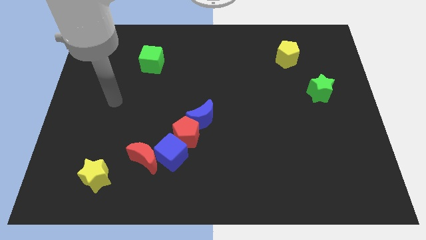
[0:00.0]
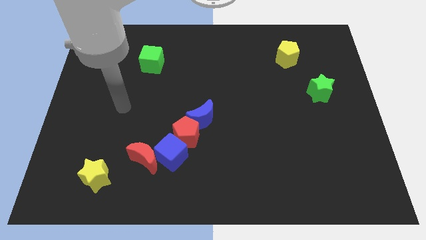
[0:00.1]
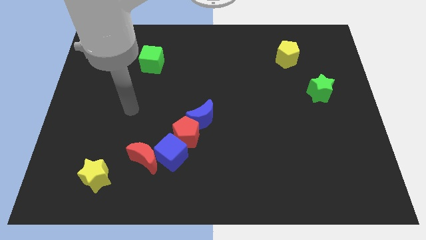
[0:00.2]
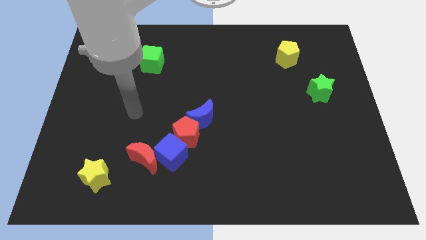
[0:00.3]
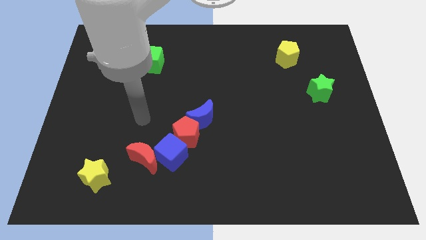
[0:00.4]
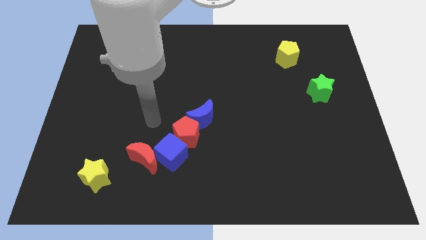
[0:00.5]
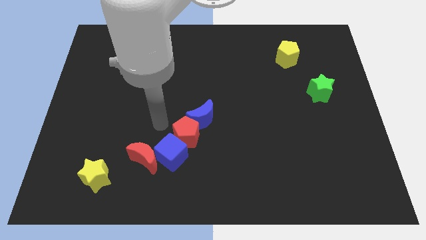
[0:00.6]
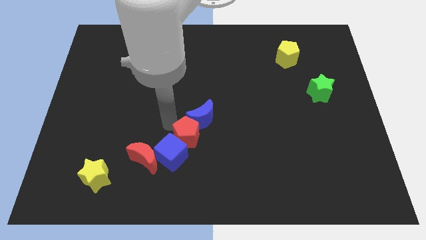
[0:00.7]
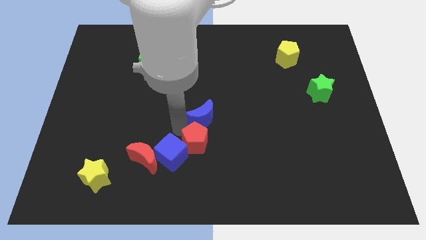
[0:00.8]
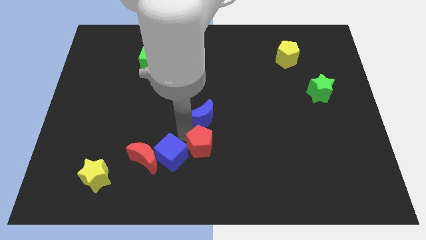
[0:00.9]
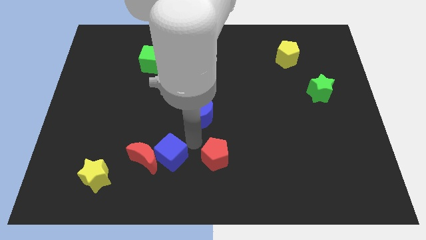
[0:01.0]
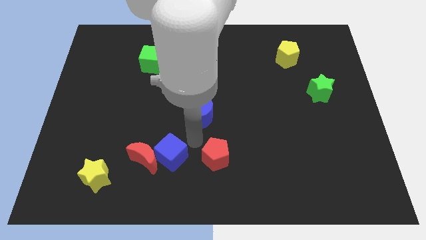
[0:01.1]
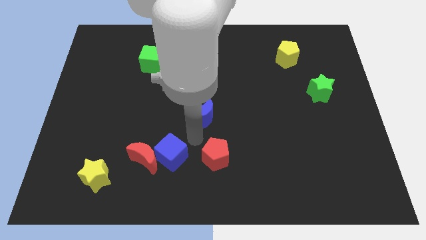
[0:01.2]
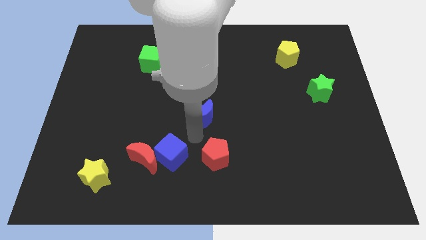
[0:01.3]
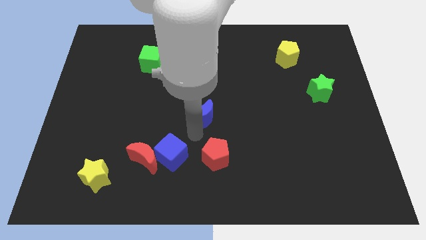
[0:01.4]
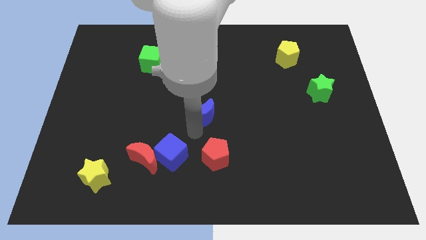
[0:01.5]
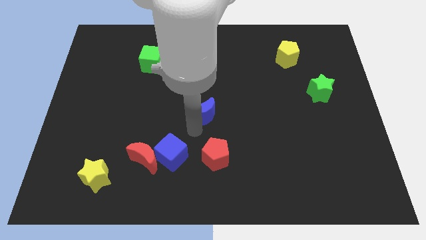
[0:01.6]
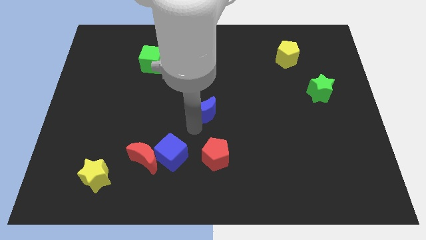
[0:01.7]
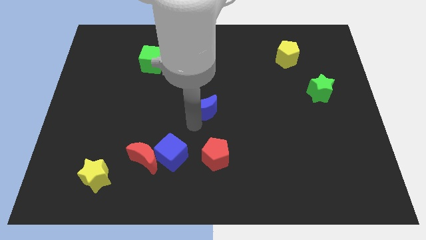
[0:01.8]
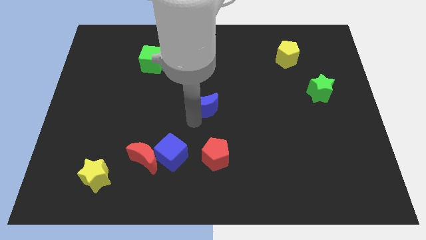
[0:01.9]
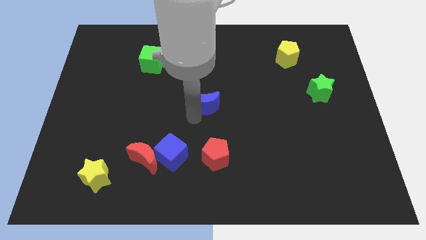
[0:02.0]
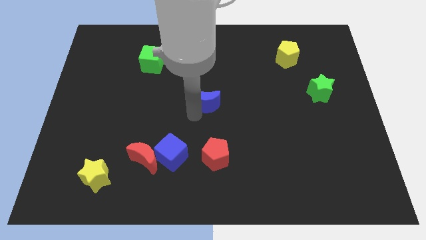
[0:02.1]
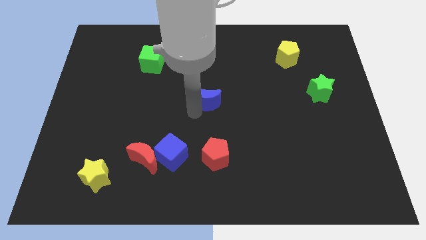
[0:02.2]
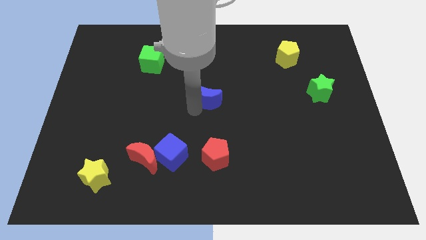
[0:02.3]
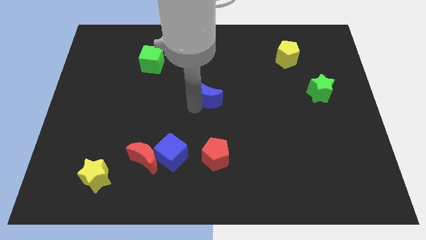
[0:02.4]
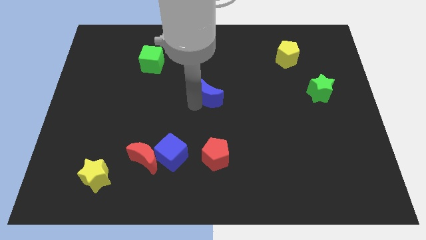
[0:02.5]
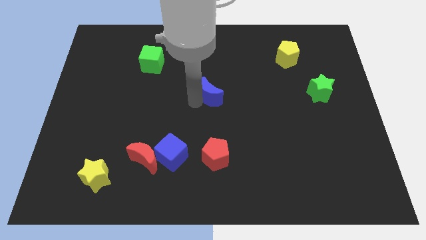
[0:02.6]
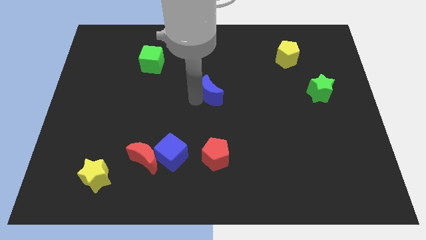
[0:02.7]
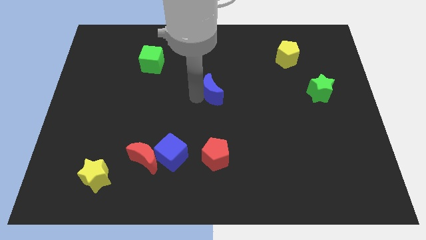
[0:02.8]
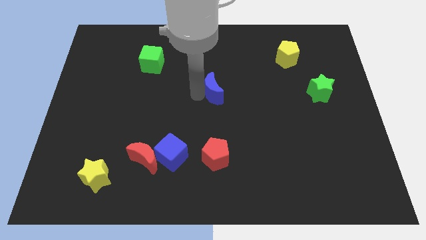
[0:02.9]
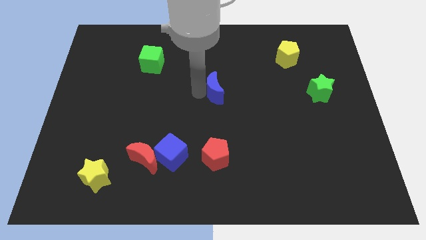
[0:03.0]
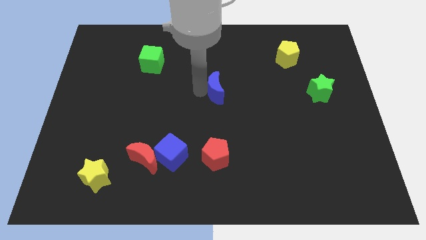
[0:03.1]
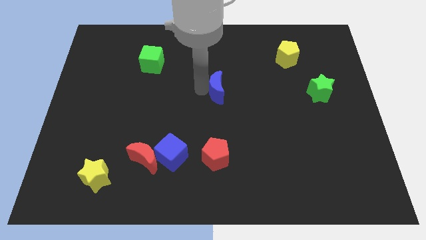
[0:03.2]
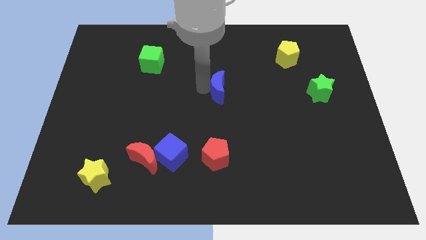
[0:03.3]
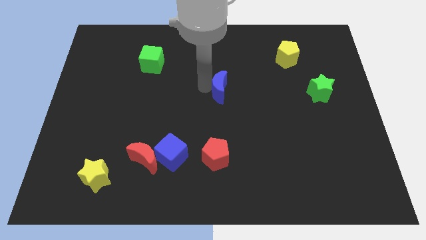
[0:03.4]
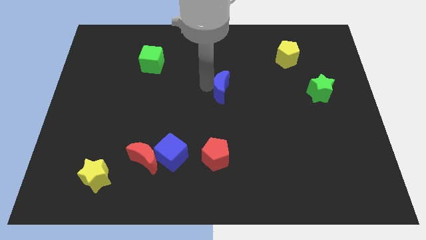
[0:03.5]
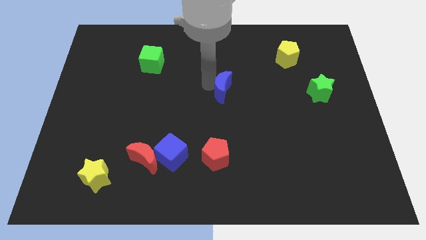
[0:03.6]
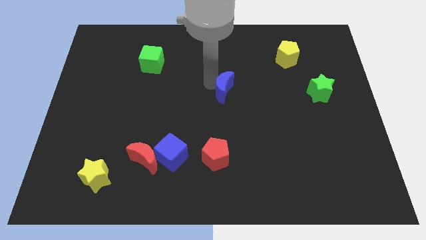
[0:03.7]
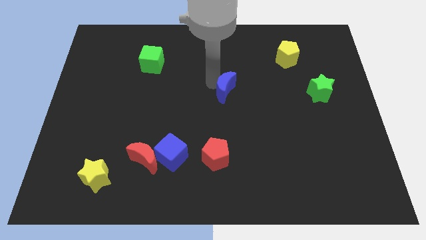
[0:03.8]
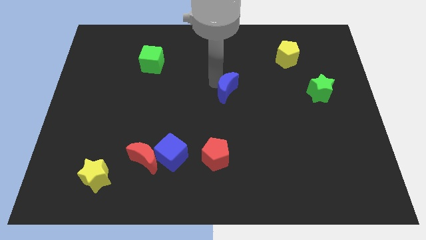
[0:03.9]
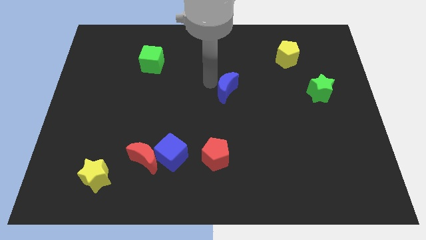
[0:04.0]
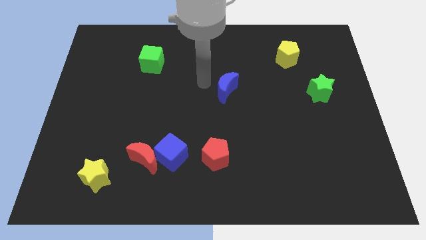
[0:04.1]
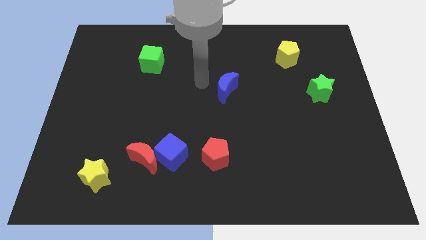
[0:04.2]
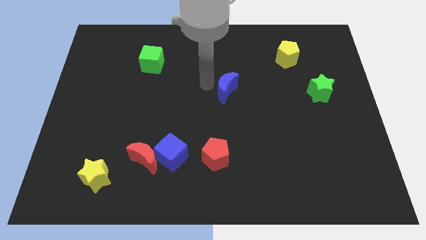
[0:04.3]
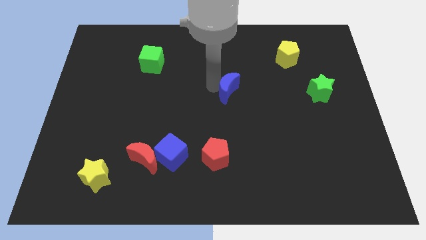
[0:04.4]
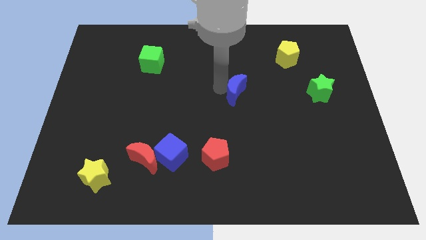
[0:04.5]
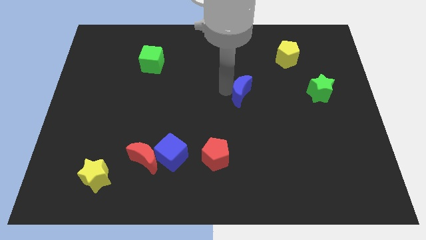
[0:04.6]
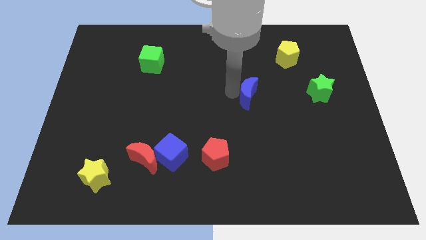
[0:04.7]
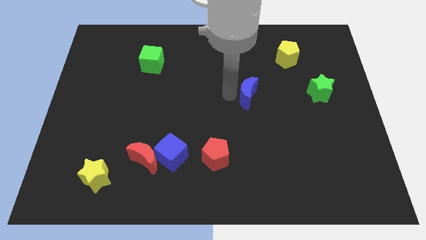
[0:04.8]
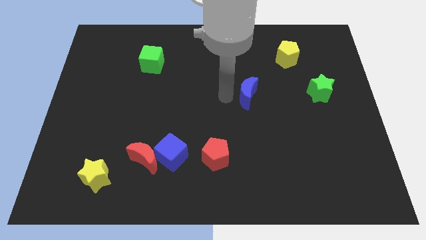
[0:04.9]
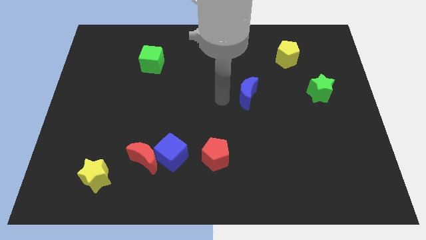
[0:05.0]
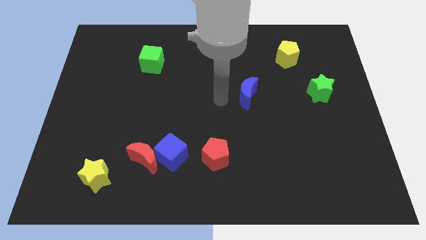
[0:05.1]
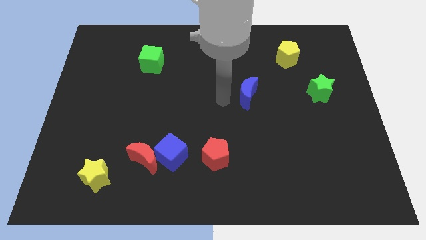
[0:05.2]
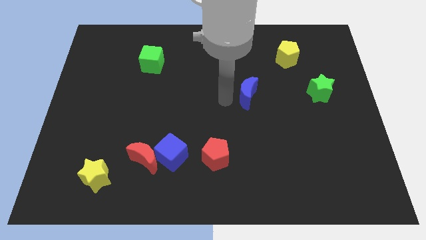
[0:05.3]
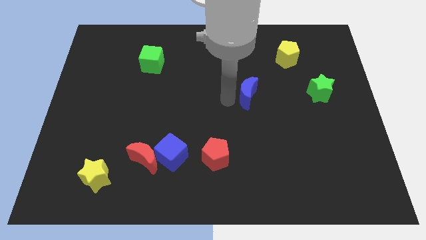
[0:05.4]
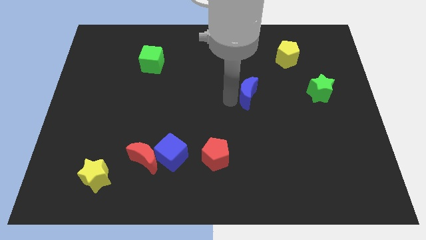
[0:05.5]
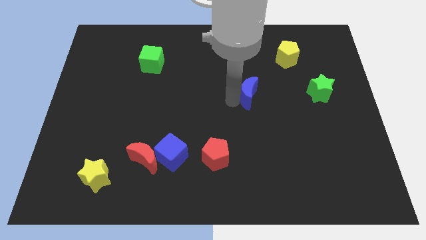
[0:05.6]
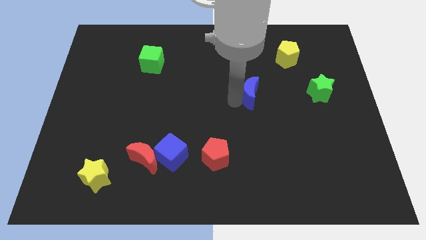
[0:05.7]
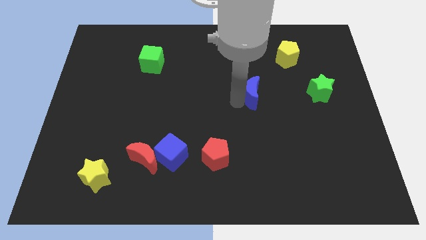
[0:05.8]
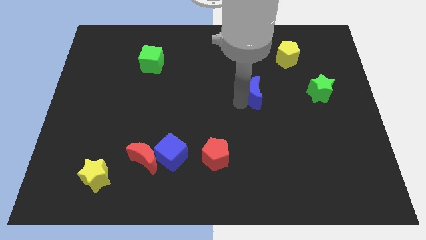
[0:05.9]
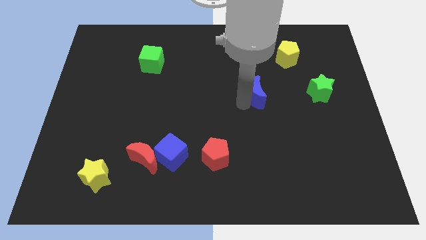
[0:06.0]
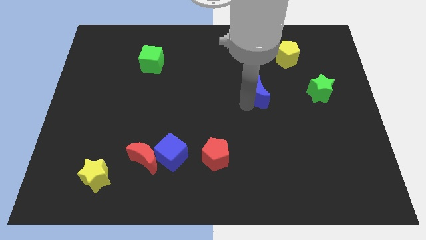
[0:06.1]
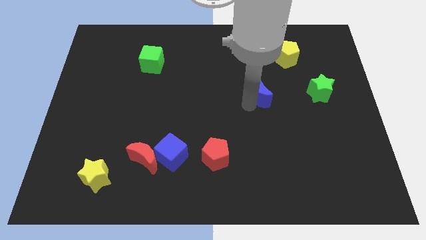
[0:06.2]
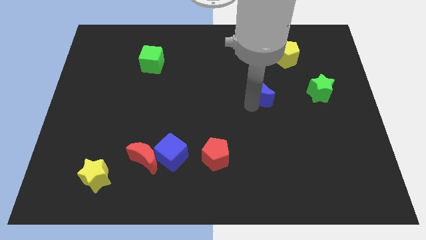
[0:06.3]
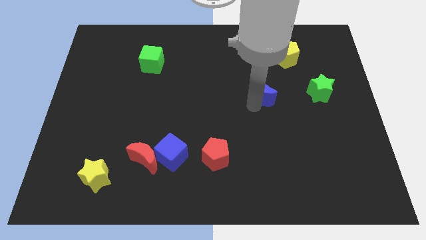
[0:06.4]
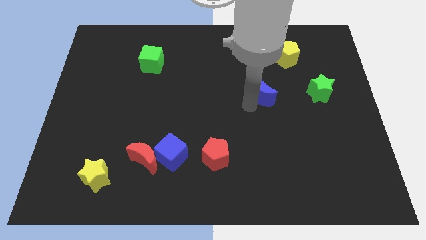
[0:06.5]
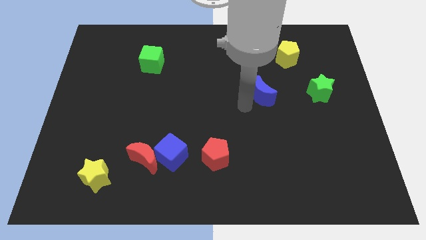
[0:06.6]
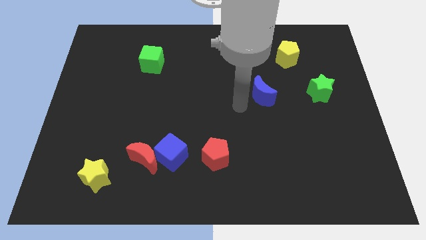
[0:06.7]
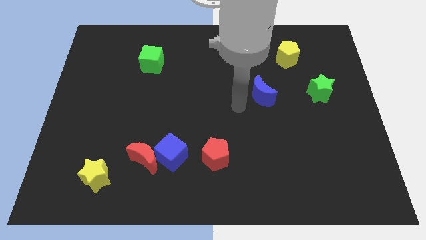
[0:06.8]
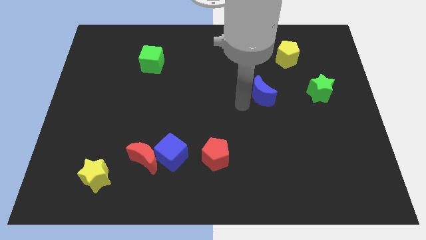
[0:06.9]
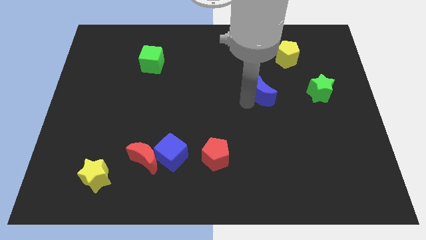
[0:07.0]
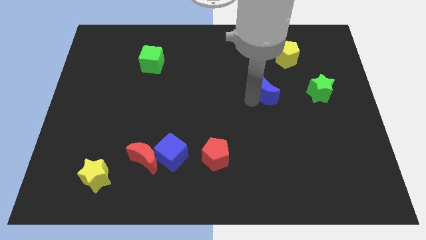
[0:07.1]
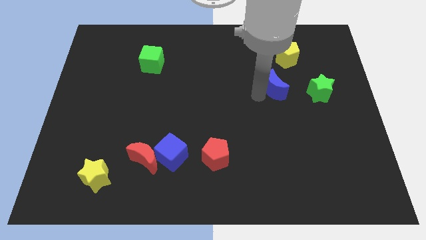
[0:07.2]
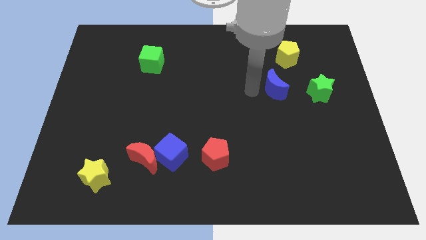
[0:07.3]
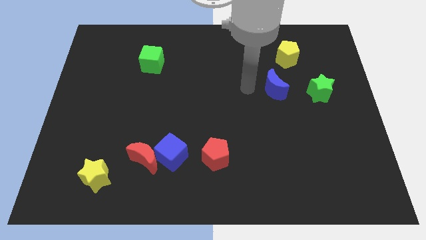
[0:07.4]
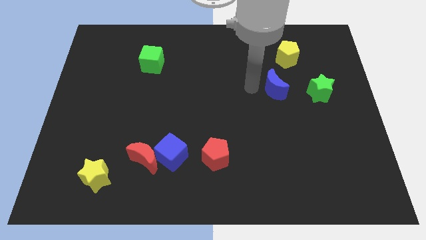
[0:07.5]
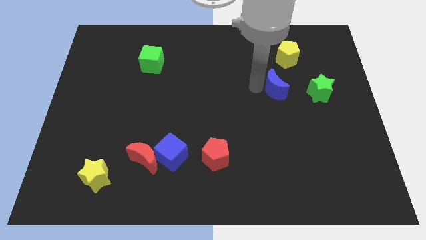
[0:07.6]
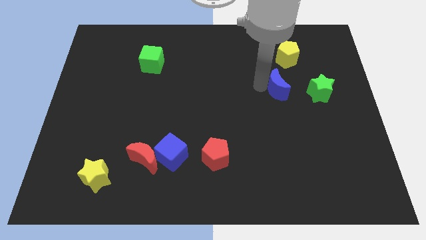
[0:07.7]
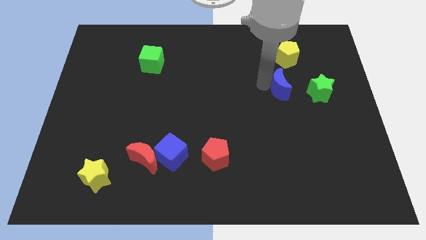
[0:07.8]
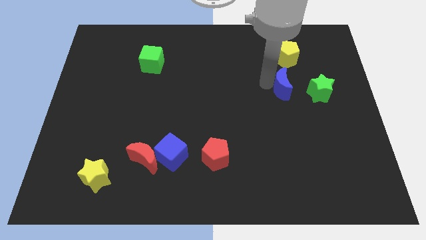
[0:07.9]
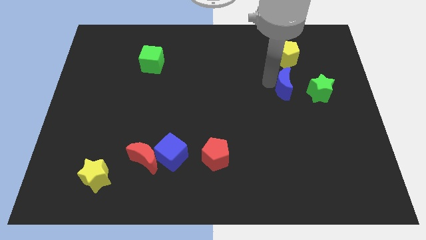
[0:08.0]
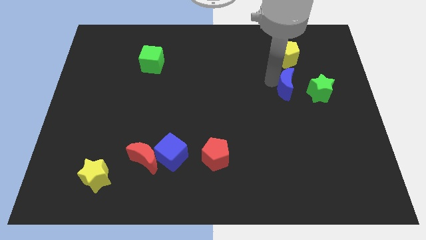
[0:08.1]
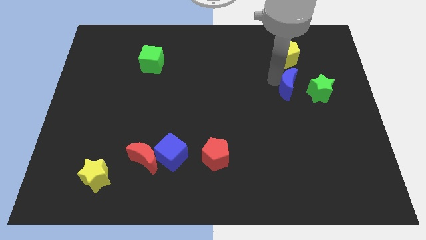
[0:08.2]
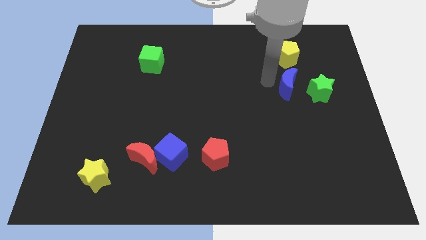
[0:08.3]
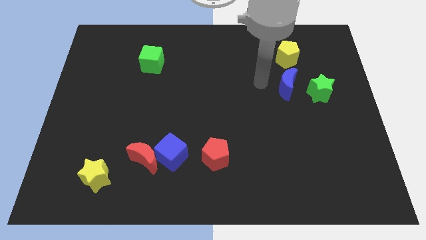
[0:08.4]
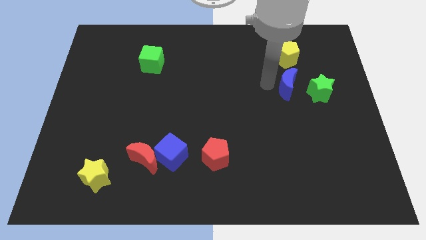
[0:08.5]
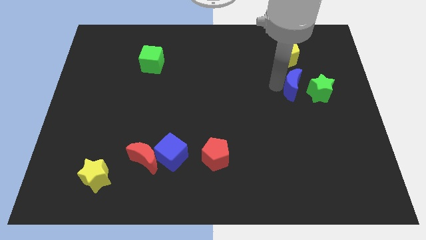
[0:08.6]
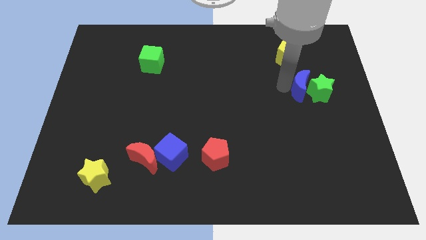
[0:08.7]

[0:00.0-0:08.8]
slide the blue moon towards the green star
